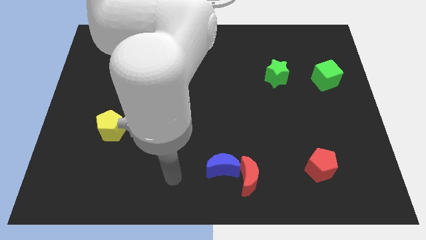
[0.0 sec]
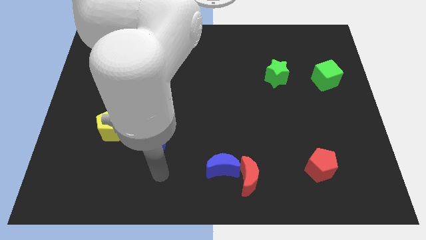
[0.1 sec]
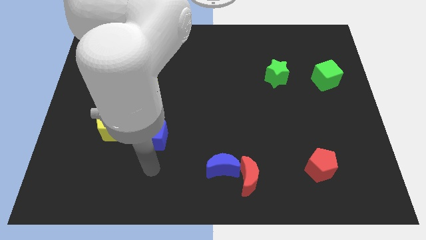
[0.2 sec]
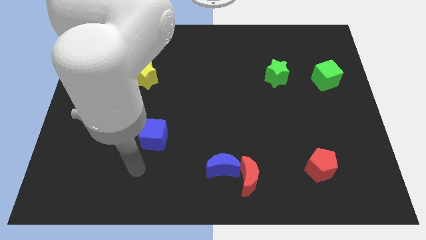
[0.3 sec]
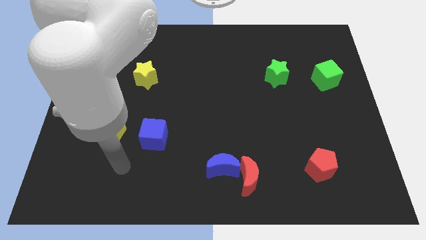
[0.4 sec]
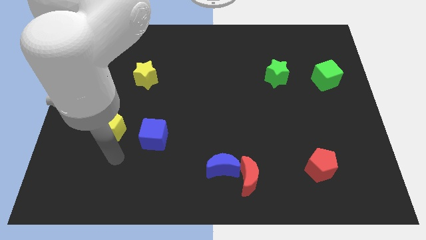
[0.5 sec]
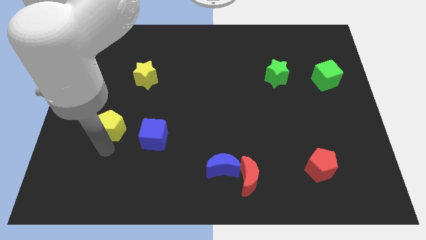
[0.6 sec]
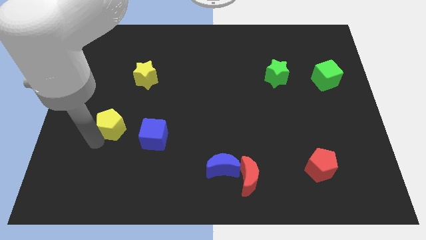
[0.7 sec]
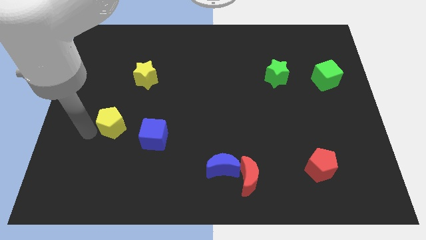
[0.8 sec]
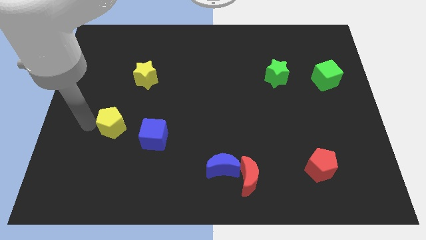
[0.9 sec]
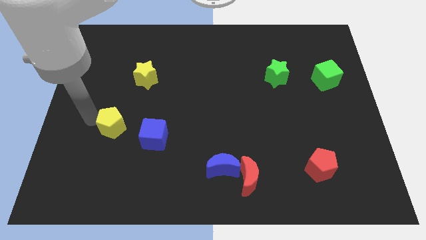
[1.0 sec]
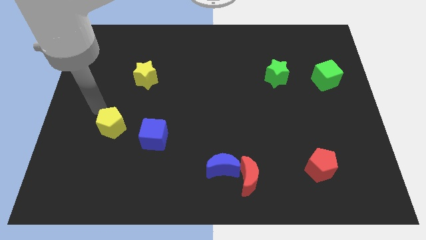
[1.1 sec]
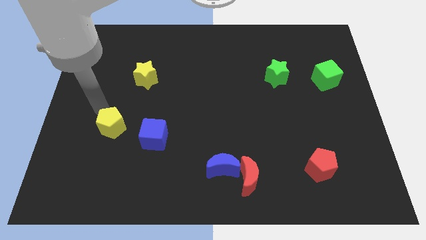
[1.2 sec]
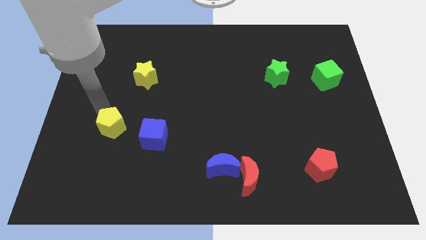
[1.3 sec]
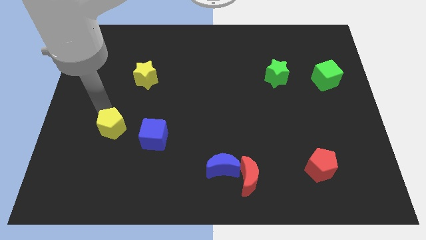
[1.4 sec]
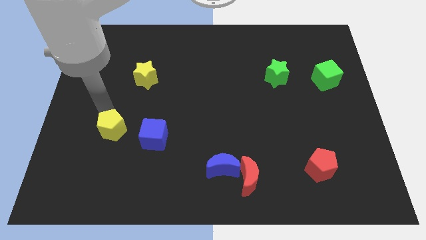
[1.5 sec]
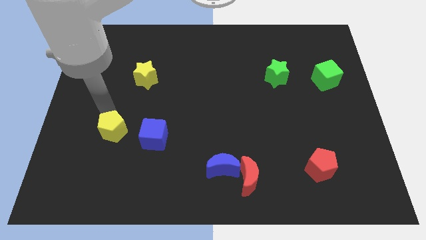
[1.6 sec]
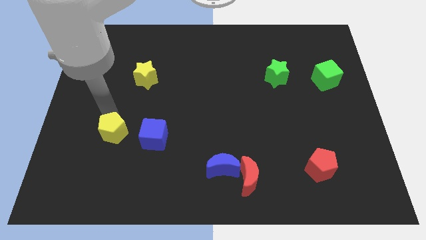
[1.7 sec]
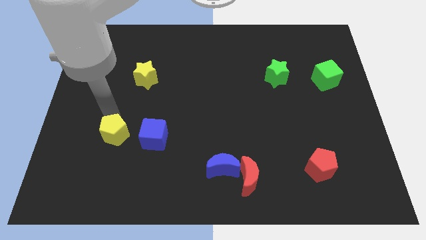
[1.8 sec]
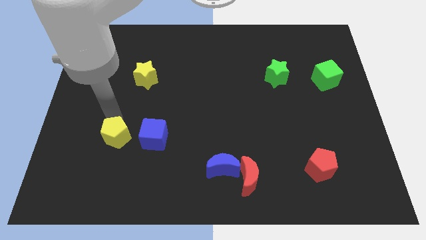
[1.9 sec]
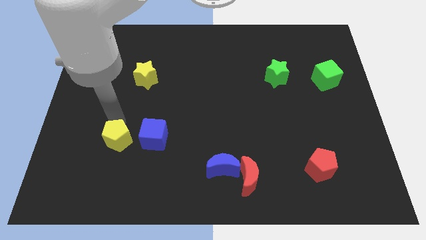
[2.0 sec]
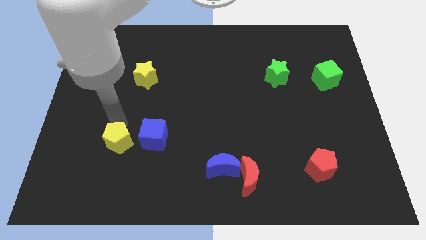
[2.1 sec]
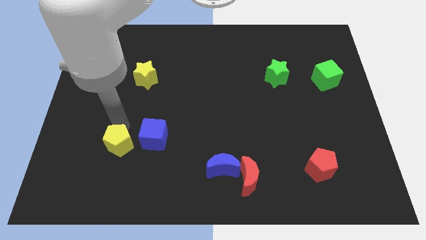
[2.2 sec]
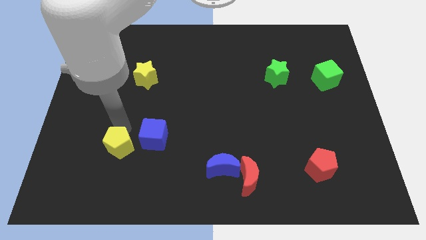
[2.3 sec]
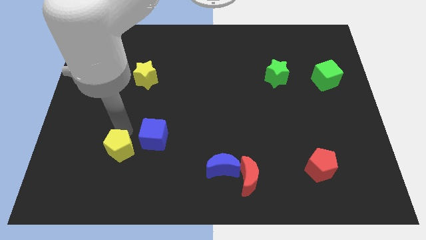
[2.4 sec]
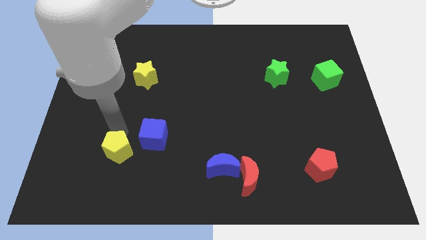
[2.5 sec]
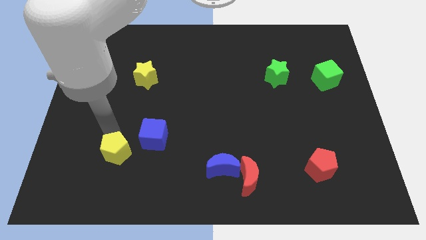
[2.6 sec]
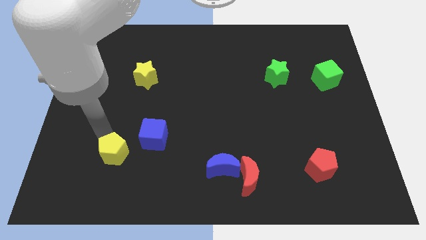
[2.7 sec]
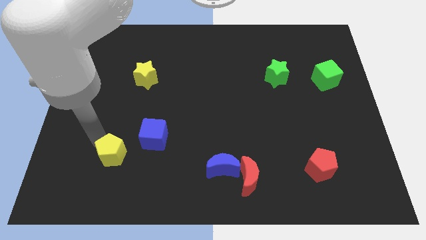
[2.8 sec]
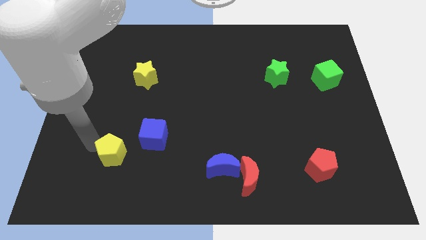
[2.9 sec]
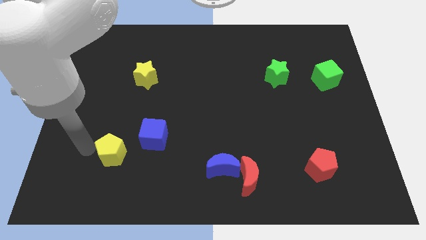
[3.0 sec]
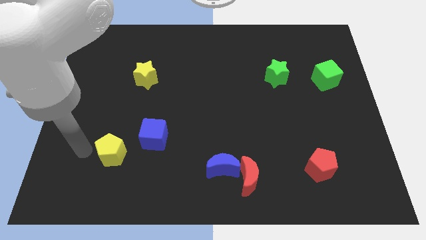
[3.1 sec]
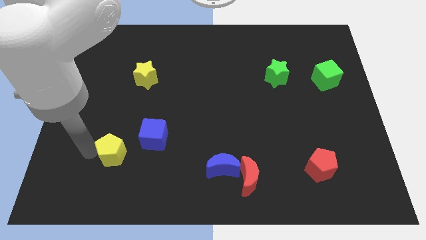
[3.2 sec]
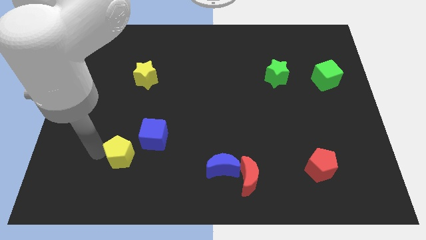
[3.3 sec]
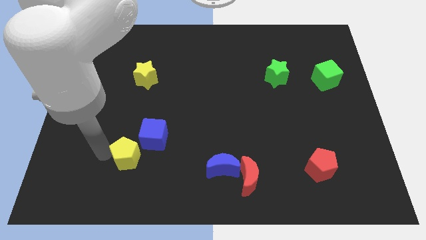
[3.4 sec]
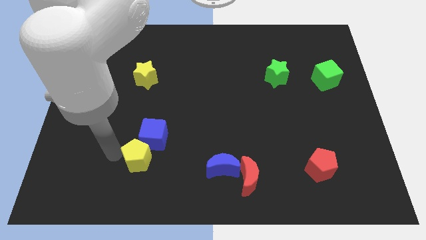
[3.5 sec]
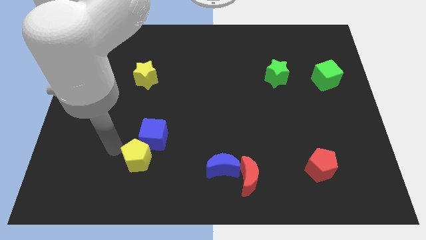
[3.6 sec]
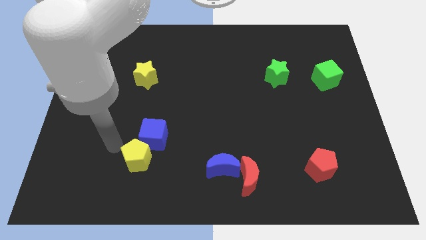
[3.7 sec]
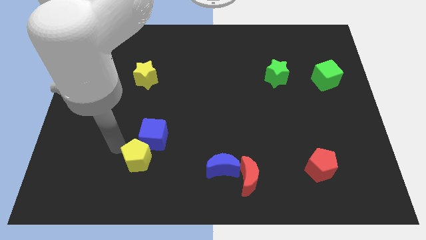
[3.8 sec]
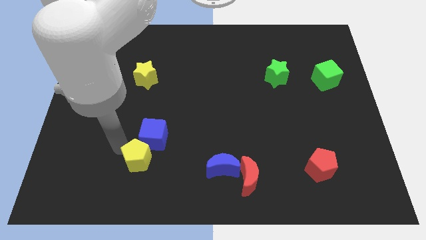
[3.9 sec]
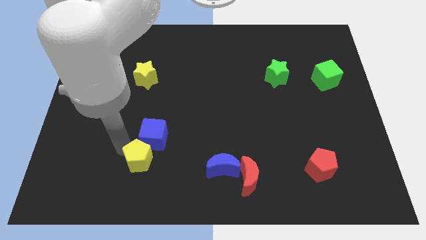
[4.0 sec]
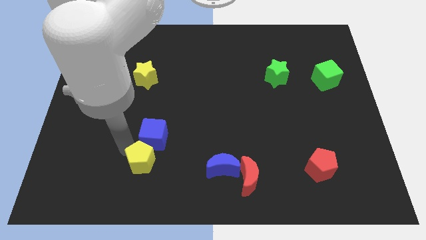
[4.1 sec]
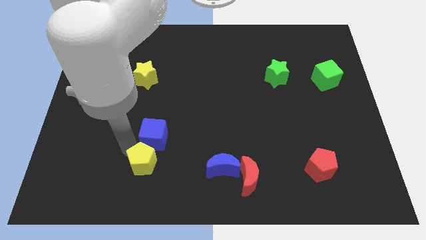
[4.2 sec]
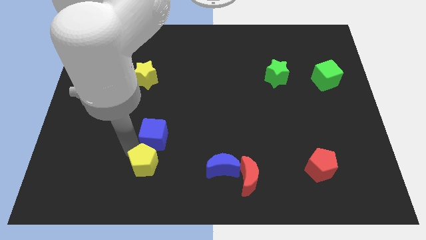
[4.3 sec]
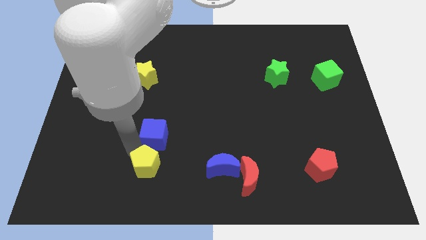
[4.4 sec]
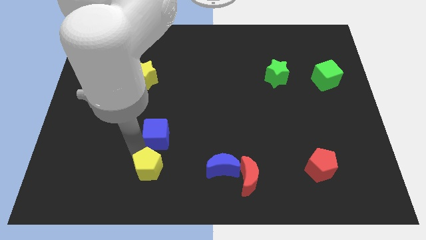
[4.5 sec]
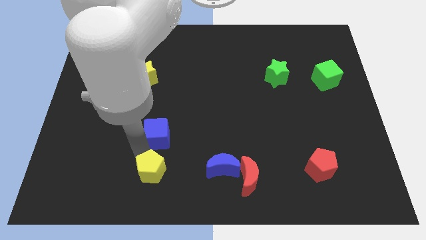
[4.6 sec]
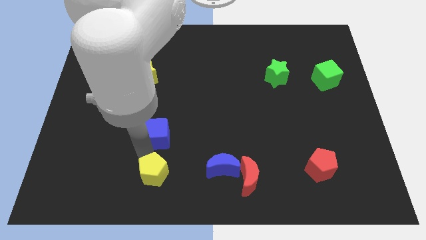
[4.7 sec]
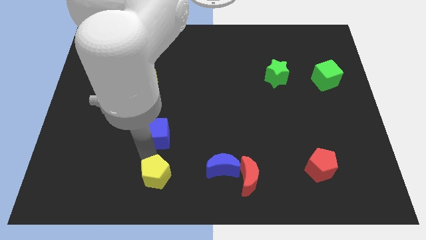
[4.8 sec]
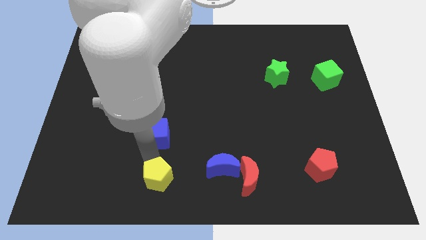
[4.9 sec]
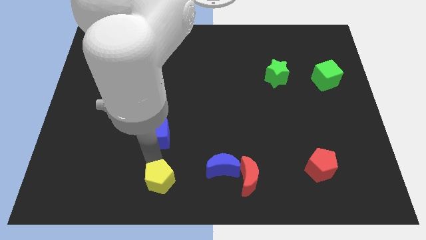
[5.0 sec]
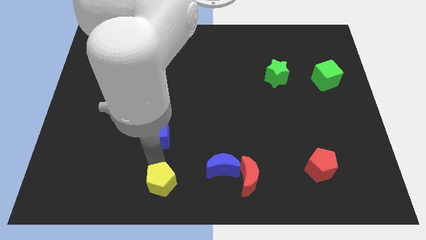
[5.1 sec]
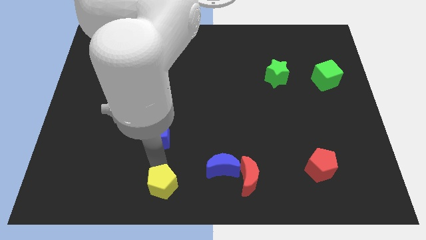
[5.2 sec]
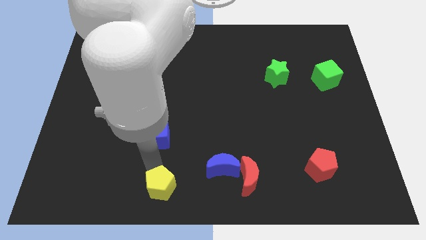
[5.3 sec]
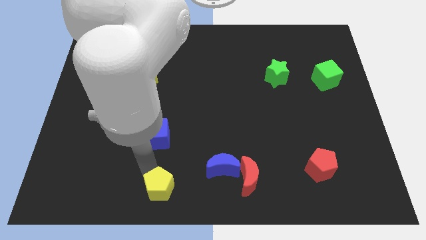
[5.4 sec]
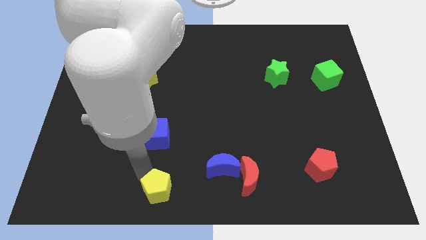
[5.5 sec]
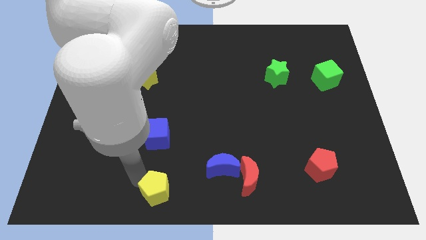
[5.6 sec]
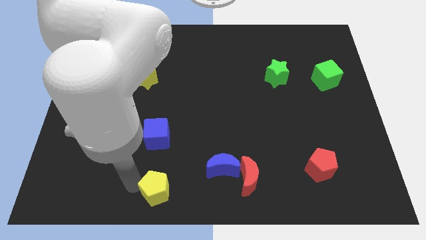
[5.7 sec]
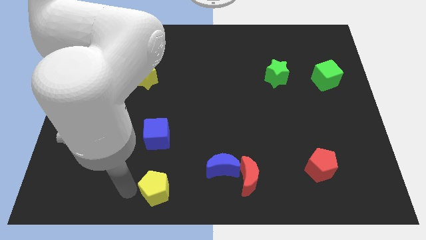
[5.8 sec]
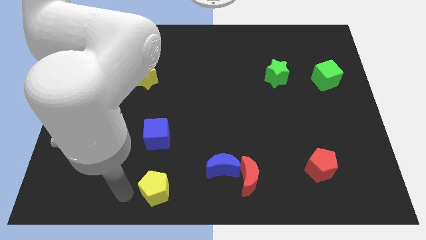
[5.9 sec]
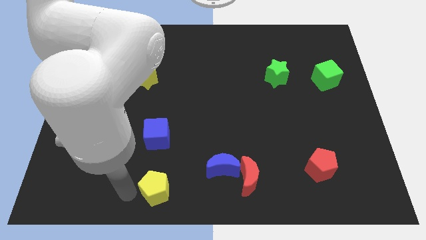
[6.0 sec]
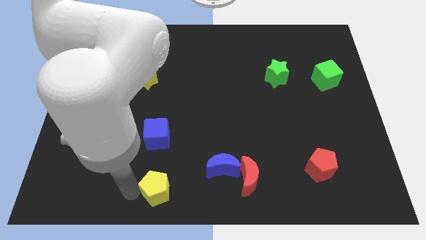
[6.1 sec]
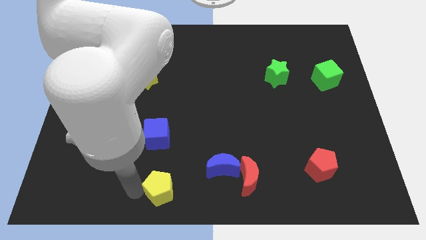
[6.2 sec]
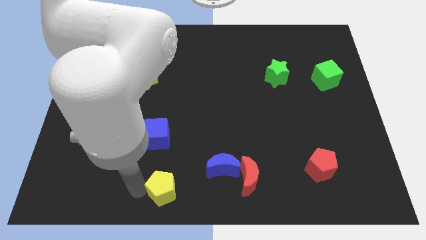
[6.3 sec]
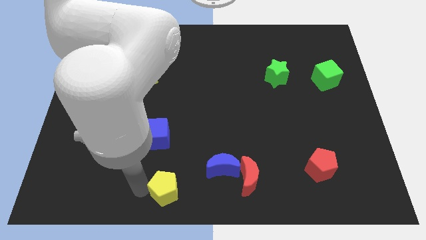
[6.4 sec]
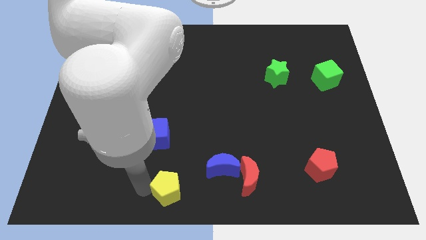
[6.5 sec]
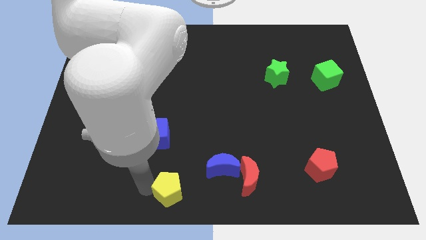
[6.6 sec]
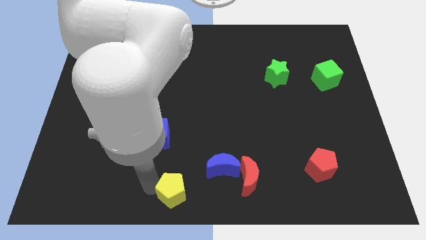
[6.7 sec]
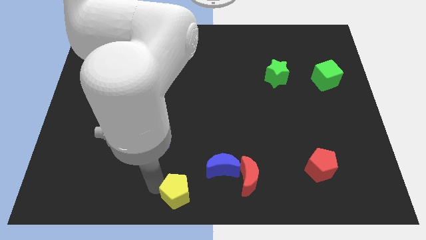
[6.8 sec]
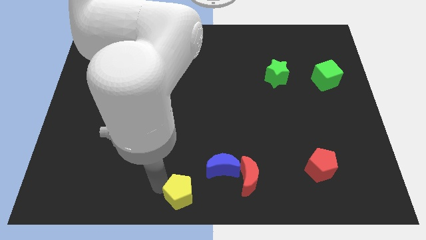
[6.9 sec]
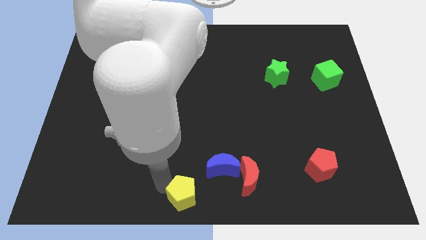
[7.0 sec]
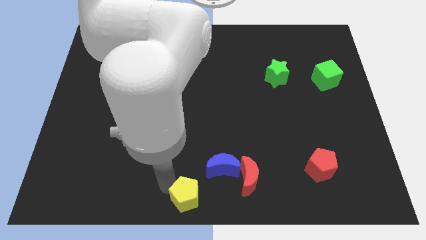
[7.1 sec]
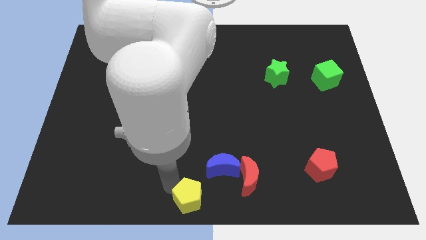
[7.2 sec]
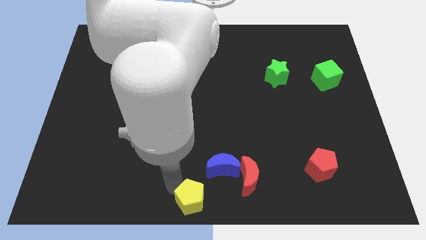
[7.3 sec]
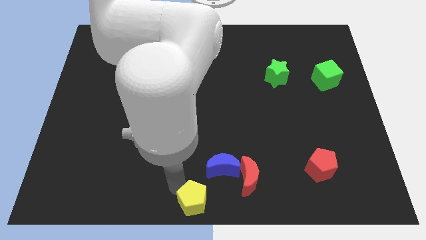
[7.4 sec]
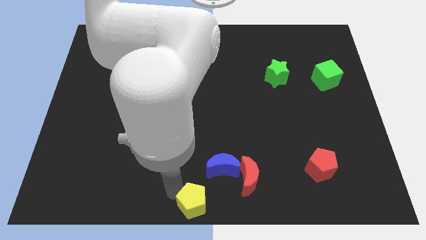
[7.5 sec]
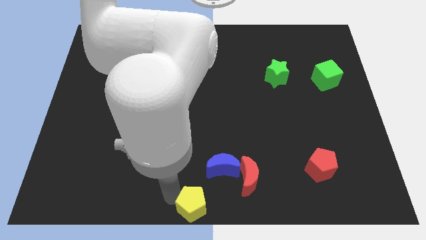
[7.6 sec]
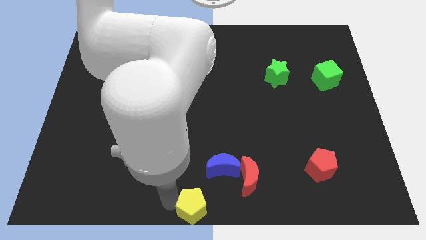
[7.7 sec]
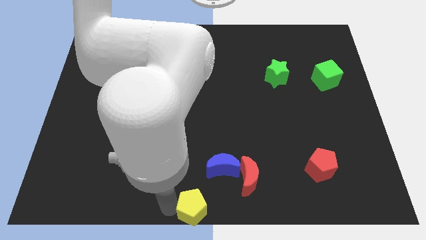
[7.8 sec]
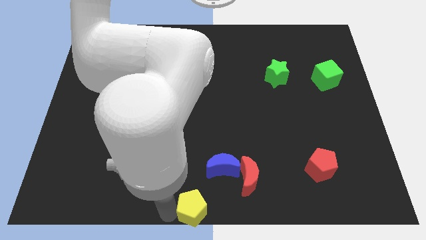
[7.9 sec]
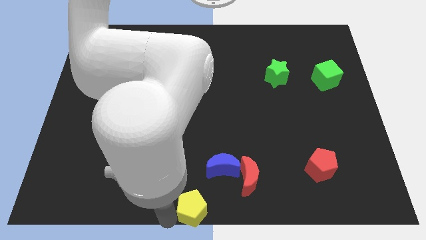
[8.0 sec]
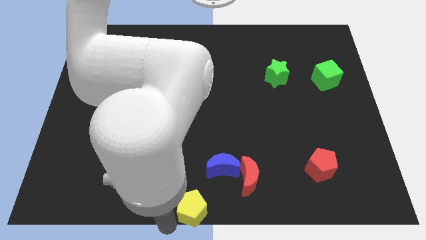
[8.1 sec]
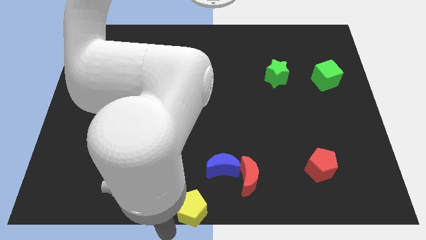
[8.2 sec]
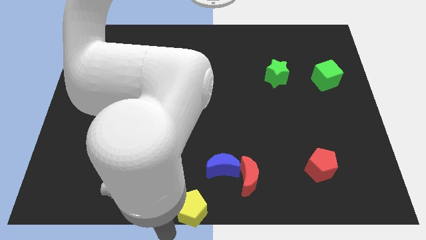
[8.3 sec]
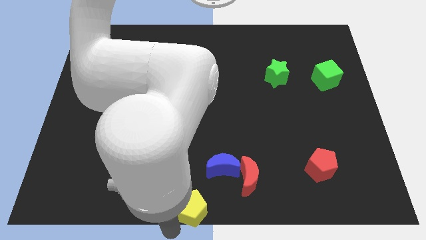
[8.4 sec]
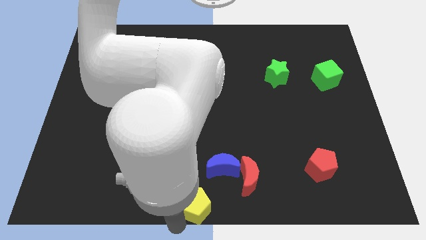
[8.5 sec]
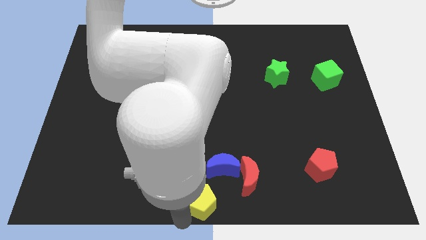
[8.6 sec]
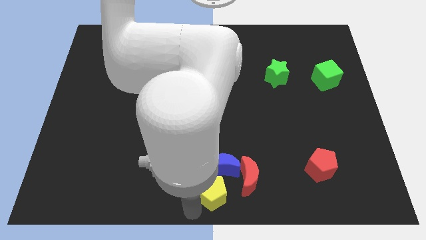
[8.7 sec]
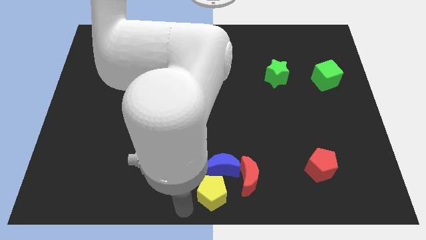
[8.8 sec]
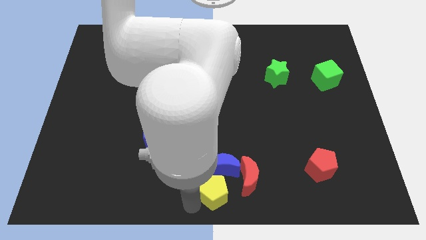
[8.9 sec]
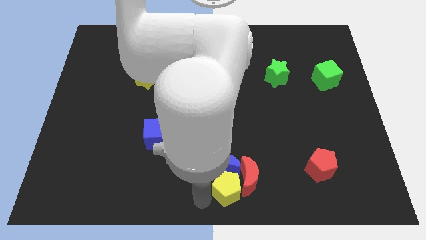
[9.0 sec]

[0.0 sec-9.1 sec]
put the yellow pentagon to the red moon
